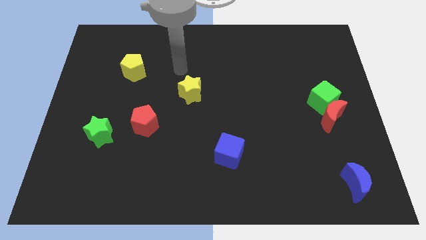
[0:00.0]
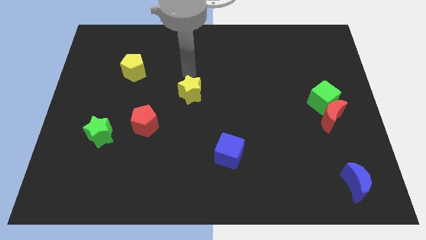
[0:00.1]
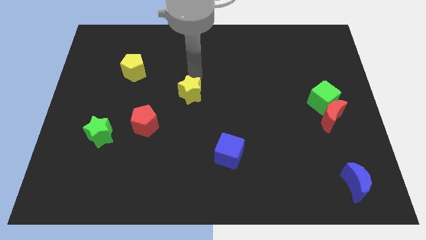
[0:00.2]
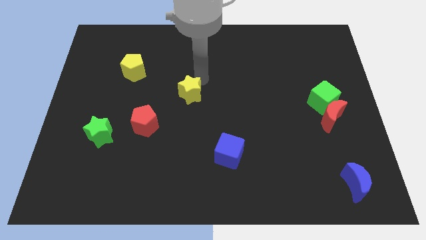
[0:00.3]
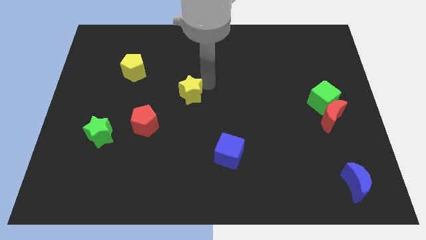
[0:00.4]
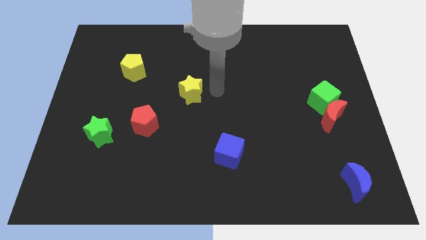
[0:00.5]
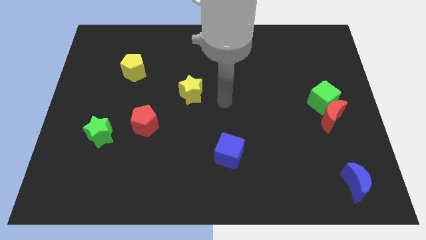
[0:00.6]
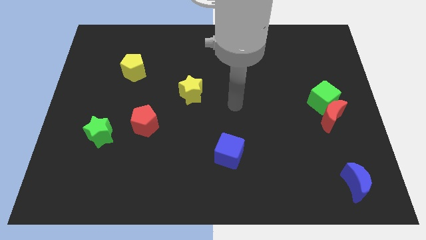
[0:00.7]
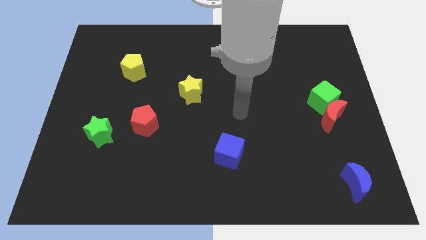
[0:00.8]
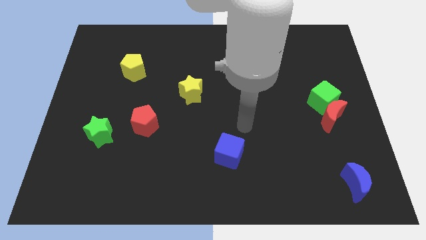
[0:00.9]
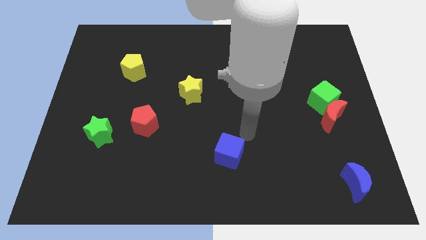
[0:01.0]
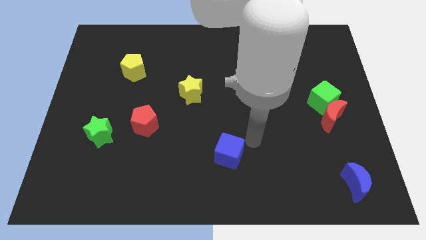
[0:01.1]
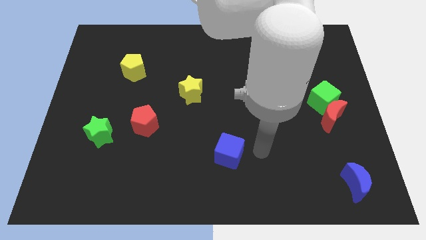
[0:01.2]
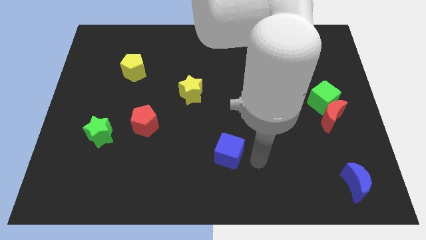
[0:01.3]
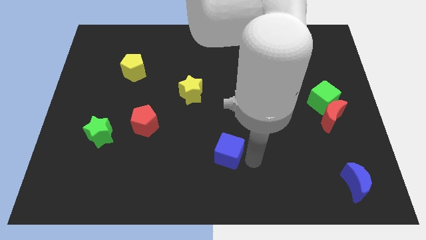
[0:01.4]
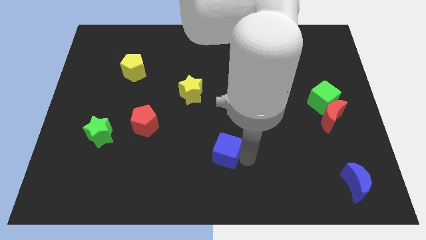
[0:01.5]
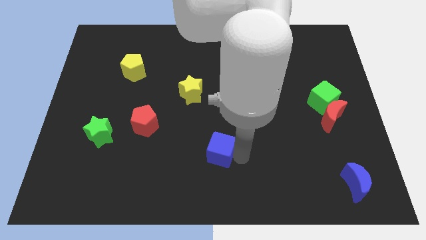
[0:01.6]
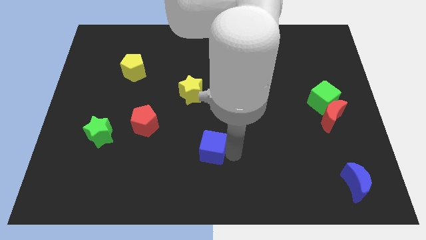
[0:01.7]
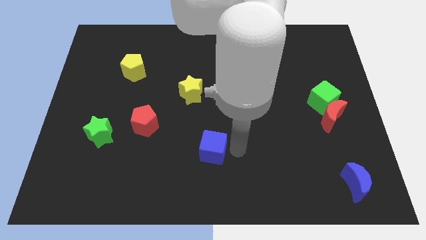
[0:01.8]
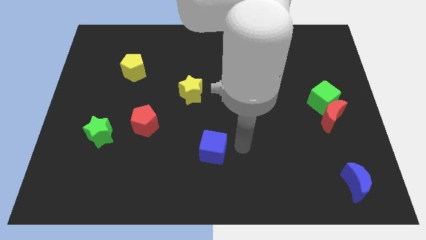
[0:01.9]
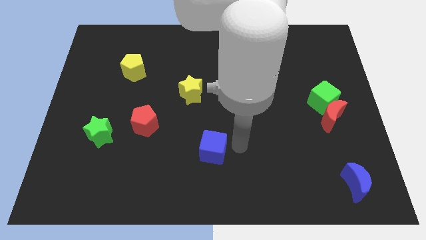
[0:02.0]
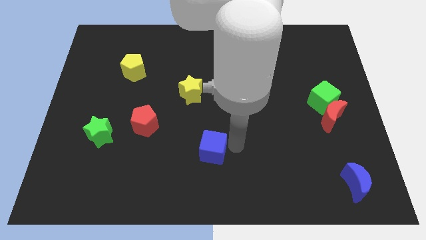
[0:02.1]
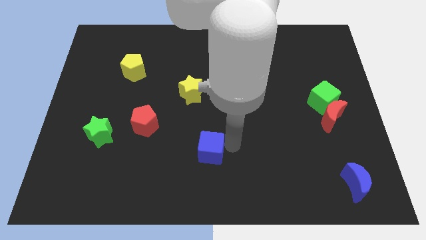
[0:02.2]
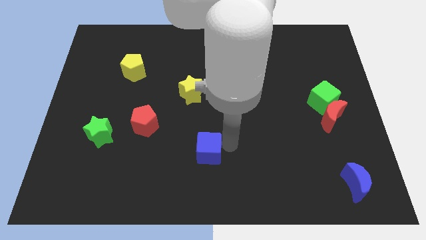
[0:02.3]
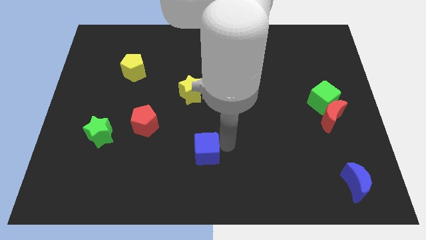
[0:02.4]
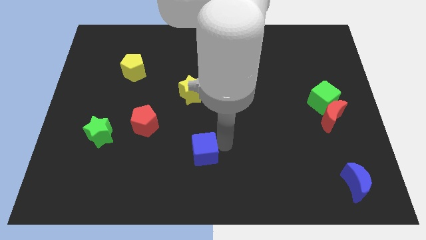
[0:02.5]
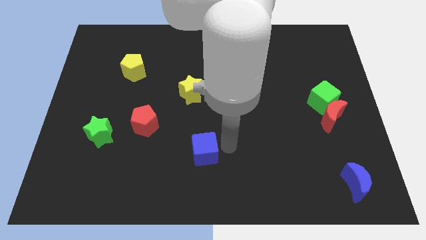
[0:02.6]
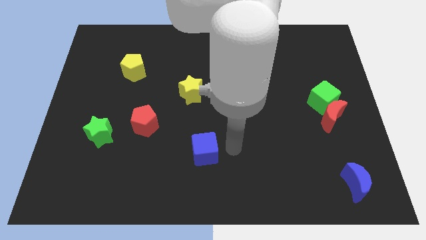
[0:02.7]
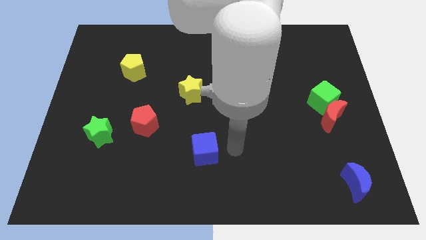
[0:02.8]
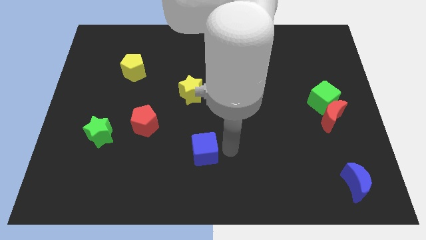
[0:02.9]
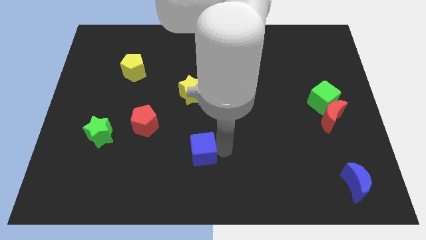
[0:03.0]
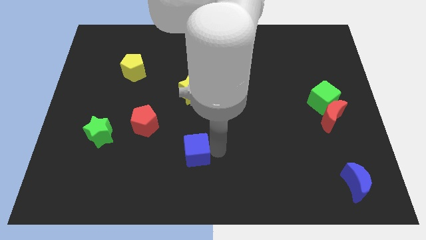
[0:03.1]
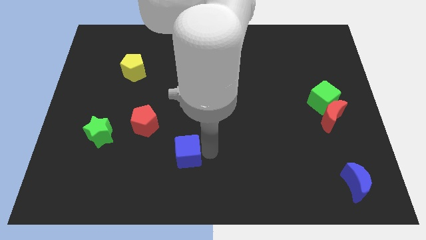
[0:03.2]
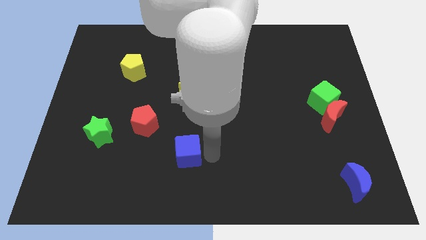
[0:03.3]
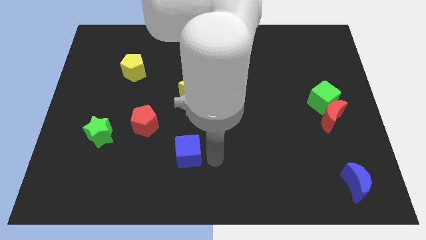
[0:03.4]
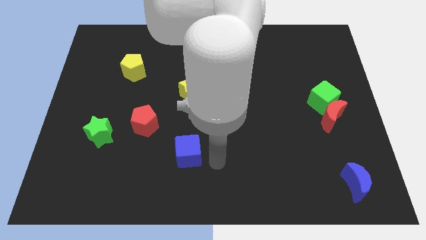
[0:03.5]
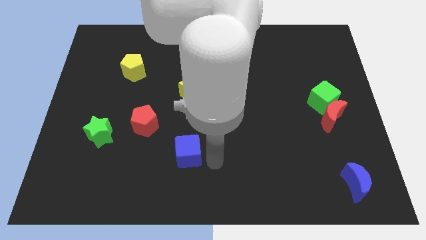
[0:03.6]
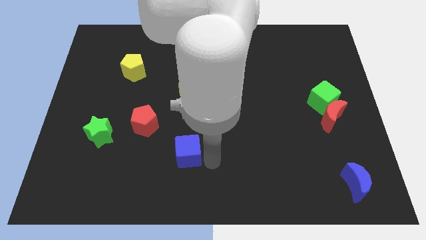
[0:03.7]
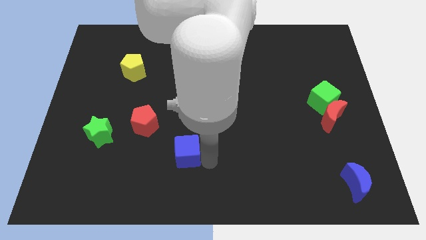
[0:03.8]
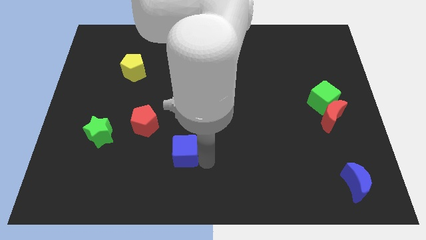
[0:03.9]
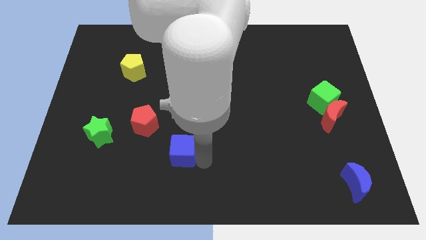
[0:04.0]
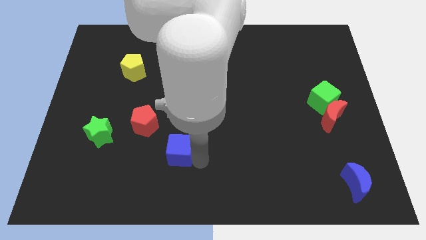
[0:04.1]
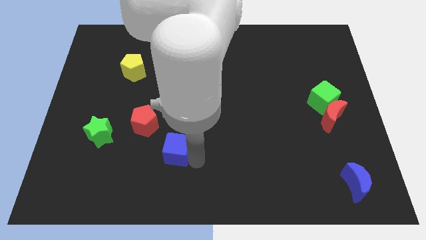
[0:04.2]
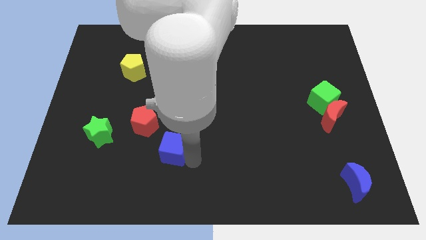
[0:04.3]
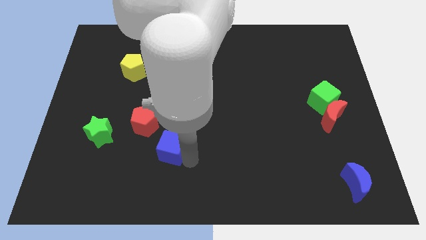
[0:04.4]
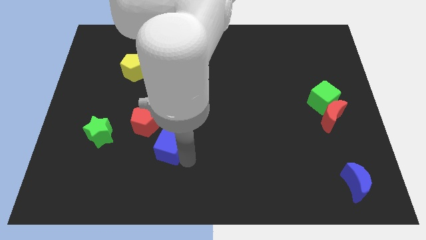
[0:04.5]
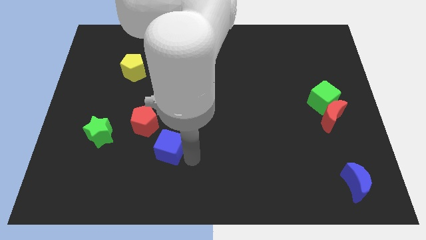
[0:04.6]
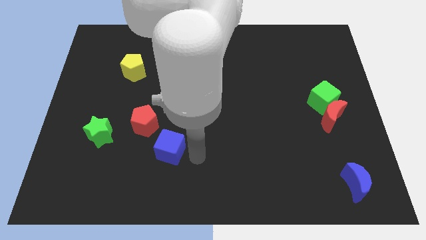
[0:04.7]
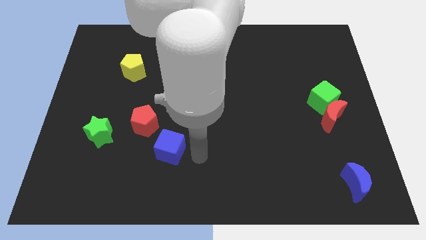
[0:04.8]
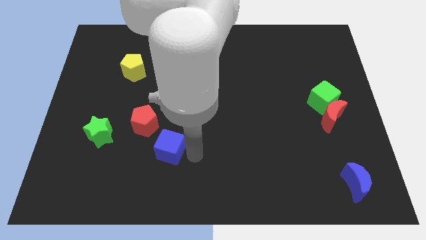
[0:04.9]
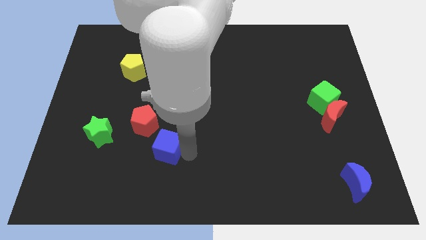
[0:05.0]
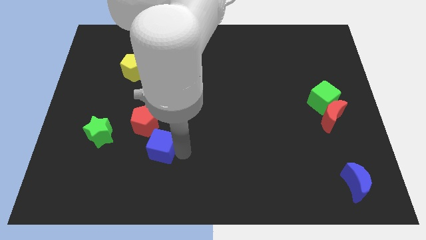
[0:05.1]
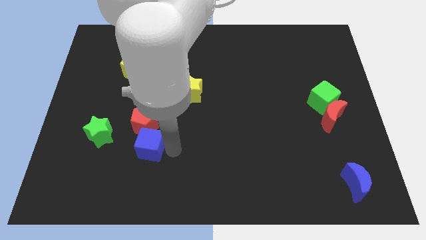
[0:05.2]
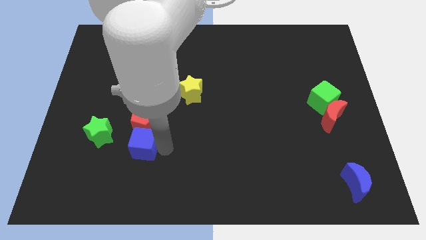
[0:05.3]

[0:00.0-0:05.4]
move the blue cube to the bottom left side of the red pentagon

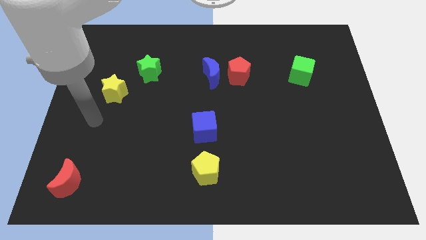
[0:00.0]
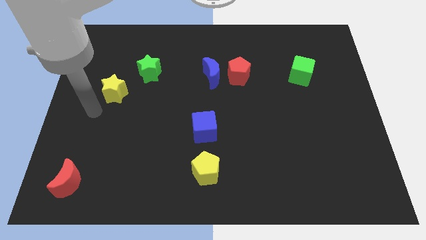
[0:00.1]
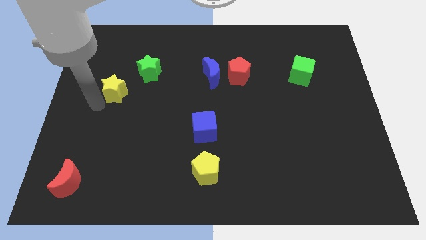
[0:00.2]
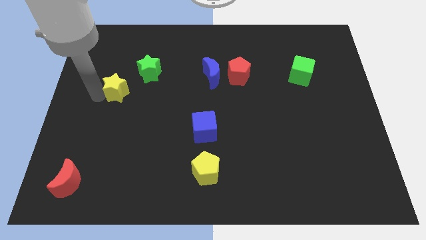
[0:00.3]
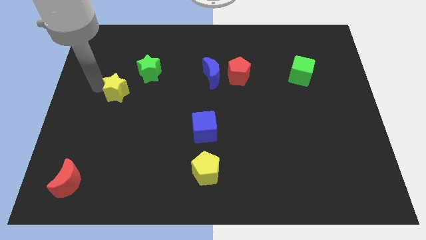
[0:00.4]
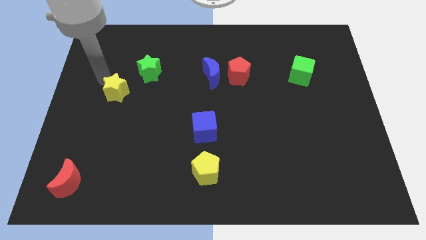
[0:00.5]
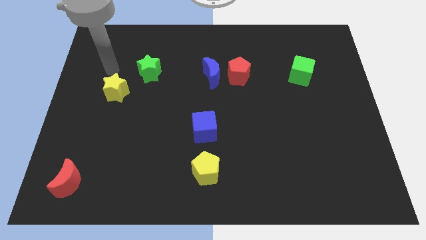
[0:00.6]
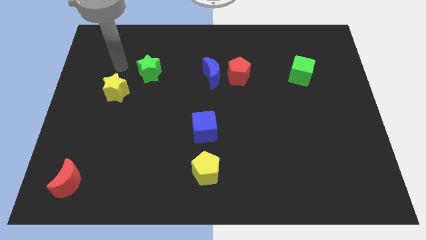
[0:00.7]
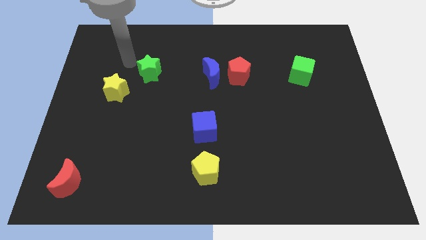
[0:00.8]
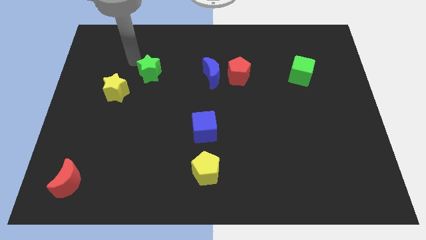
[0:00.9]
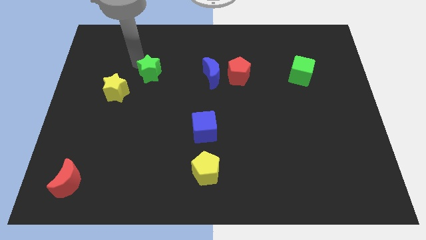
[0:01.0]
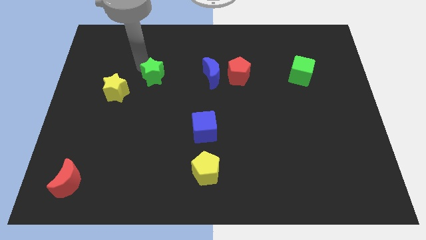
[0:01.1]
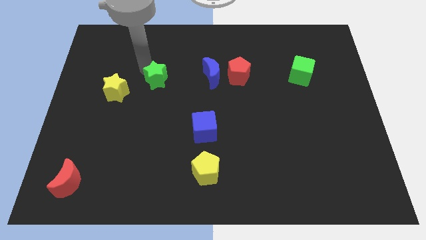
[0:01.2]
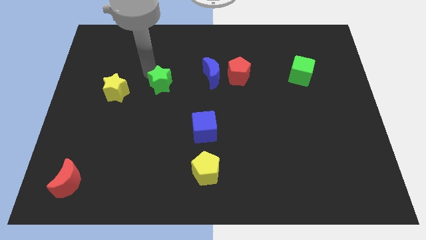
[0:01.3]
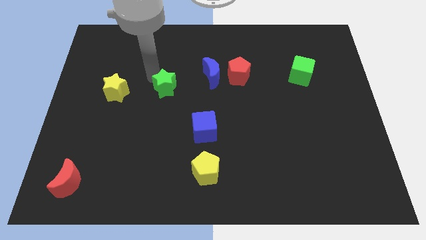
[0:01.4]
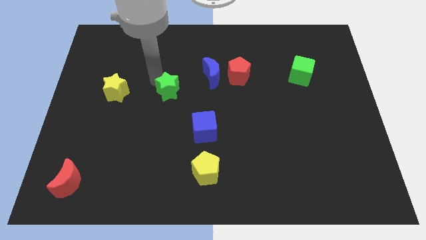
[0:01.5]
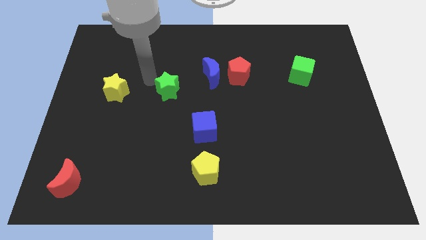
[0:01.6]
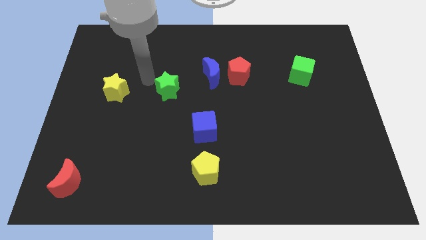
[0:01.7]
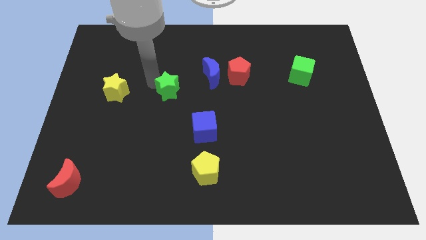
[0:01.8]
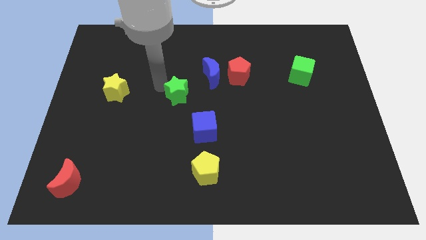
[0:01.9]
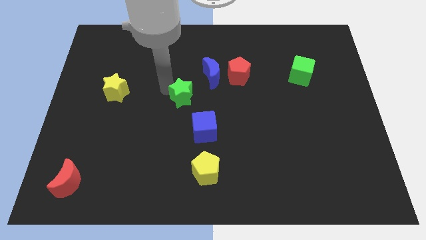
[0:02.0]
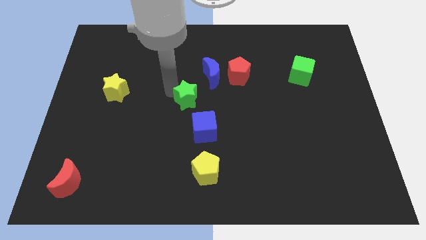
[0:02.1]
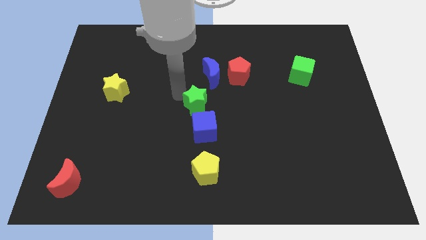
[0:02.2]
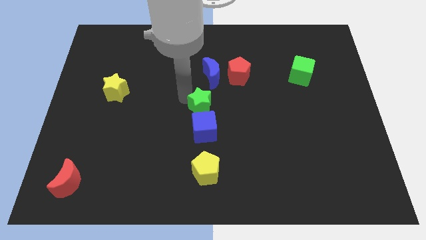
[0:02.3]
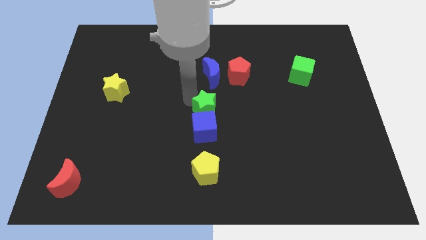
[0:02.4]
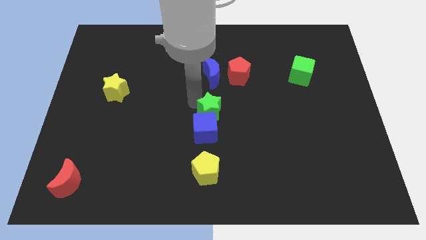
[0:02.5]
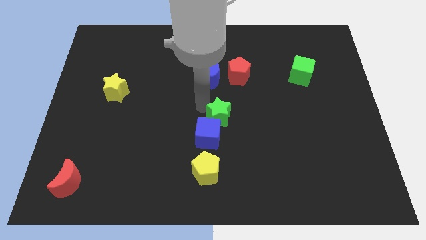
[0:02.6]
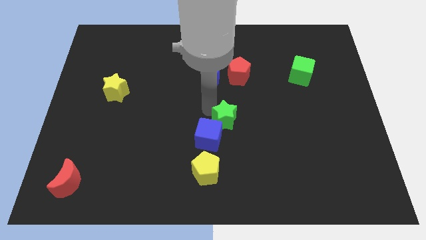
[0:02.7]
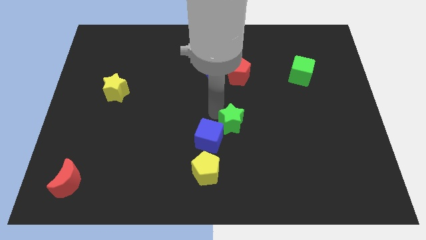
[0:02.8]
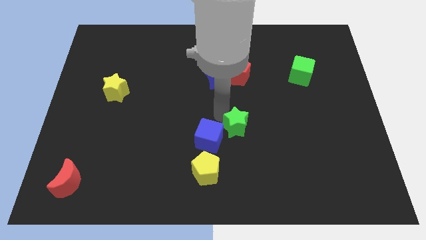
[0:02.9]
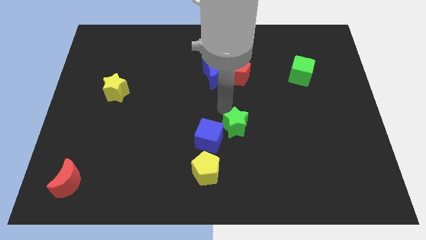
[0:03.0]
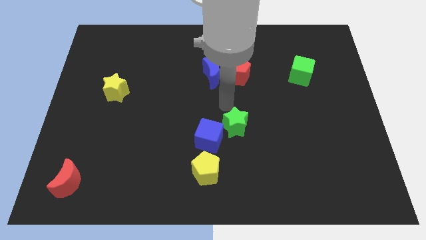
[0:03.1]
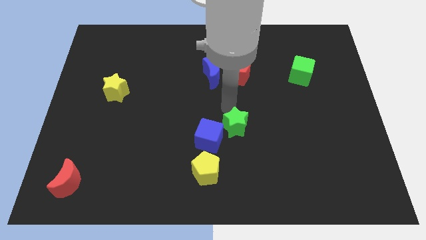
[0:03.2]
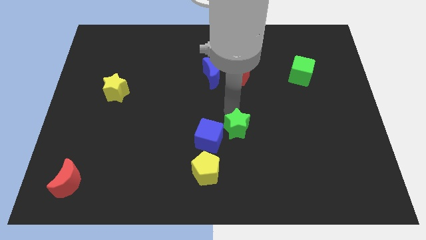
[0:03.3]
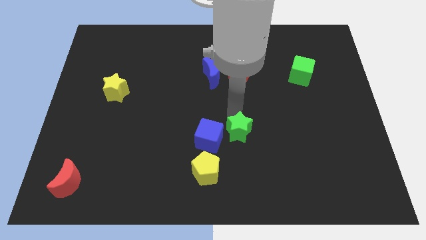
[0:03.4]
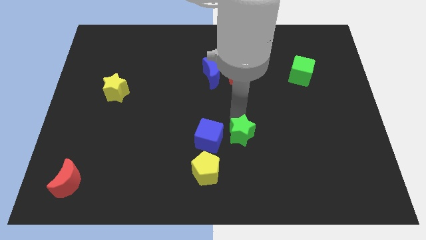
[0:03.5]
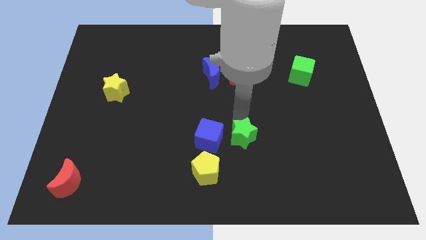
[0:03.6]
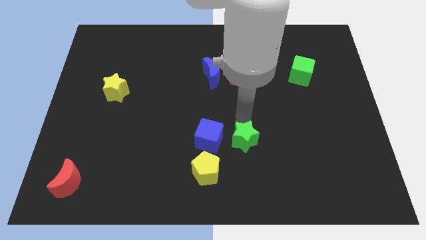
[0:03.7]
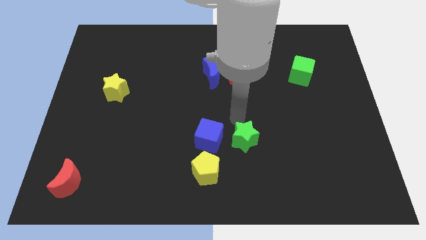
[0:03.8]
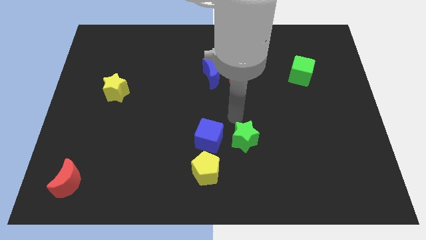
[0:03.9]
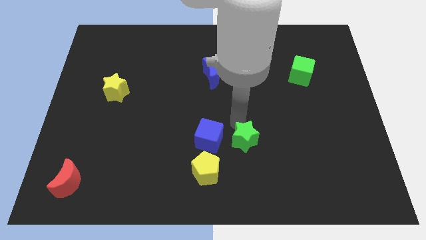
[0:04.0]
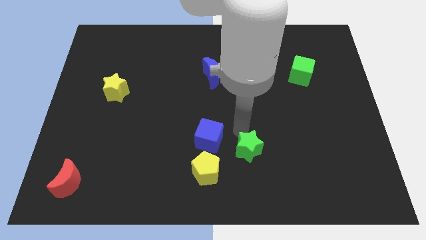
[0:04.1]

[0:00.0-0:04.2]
push the green star to the right of the yellow pentagon
